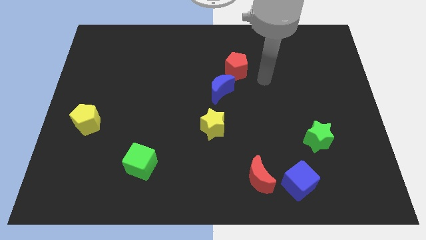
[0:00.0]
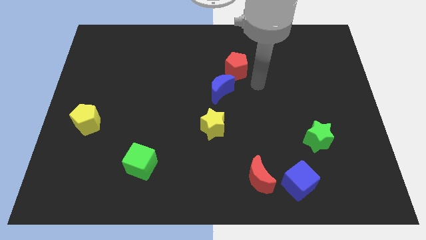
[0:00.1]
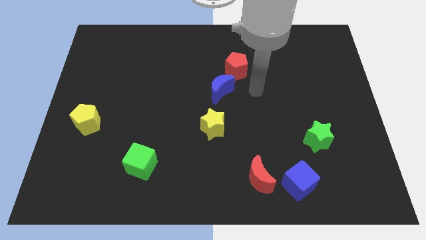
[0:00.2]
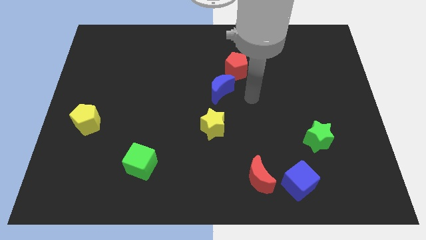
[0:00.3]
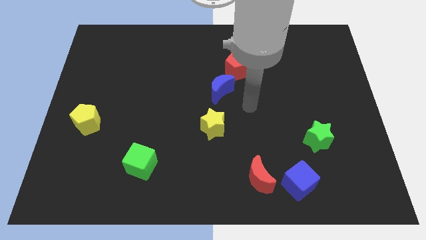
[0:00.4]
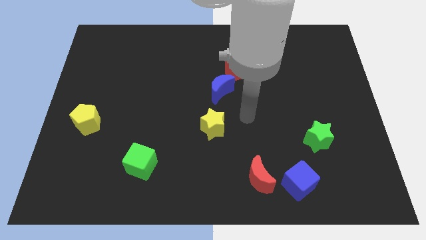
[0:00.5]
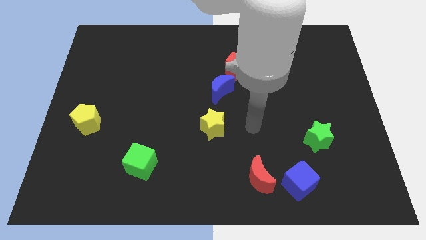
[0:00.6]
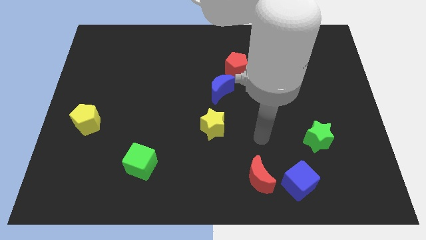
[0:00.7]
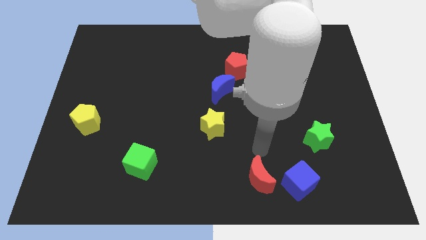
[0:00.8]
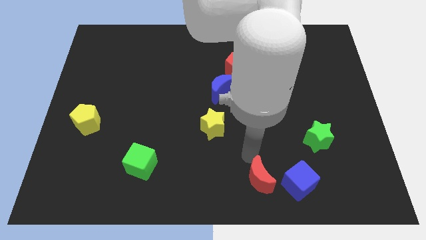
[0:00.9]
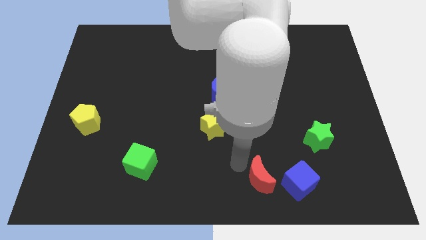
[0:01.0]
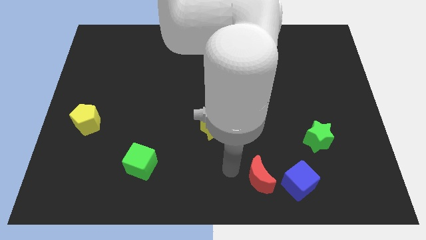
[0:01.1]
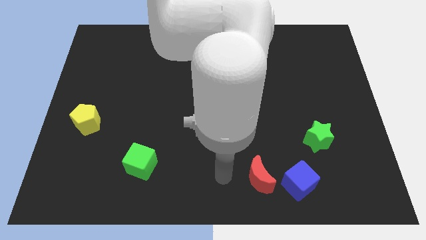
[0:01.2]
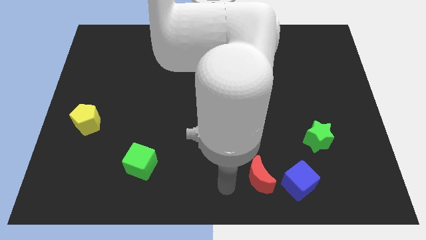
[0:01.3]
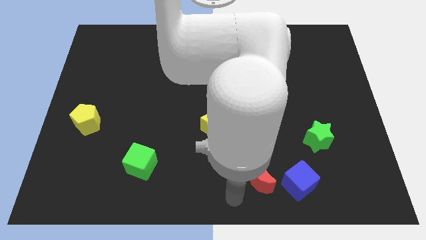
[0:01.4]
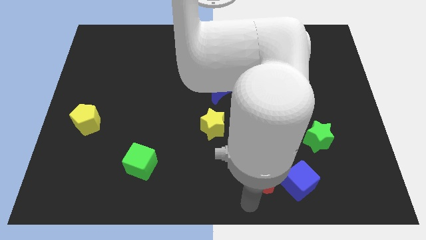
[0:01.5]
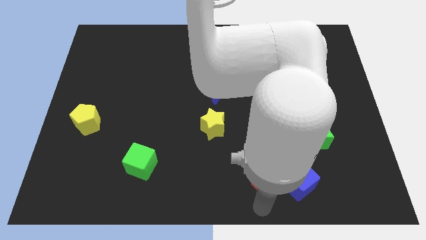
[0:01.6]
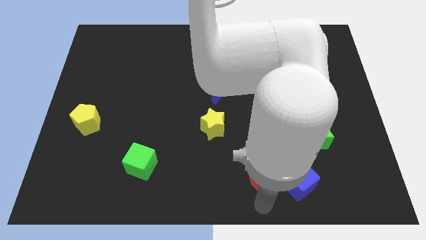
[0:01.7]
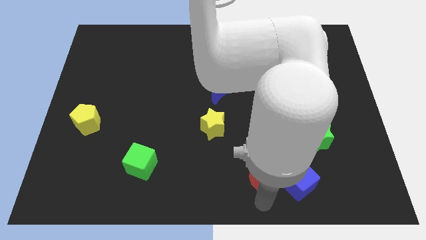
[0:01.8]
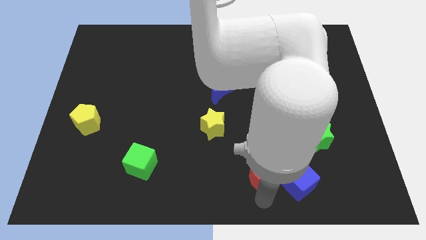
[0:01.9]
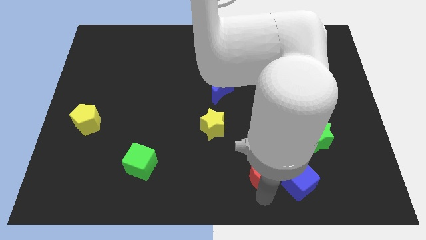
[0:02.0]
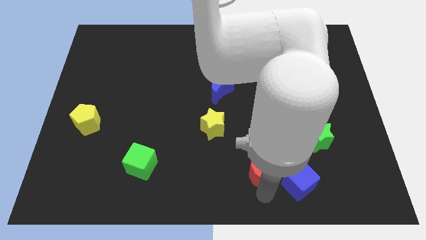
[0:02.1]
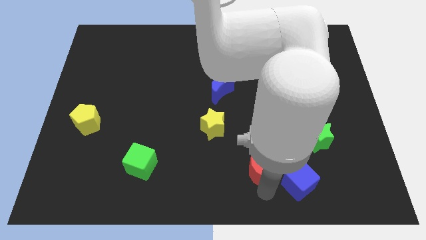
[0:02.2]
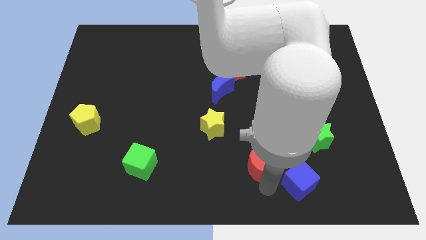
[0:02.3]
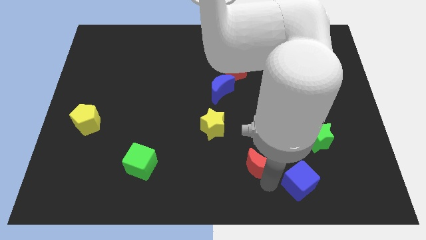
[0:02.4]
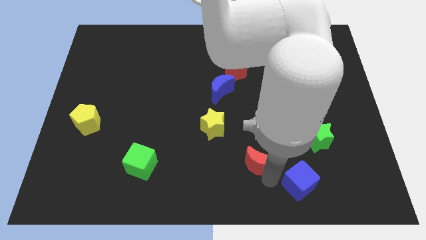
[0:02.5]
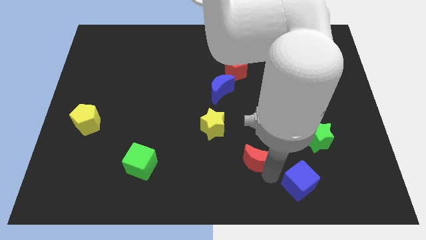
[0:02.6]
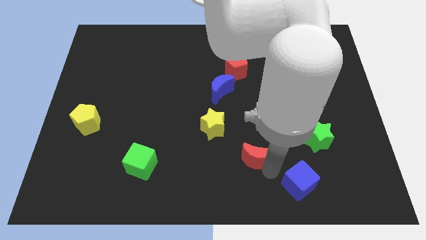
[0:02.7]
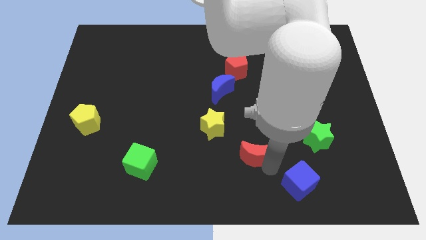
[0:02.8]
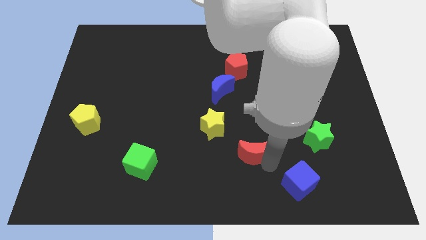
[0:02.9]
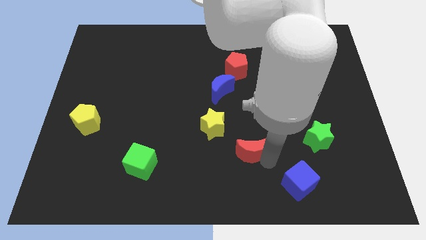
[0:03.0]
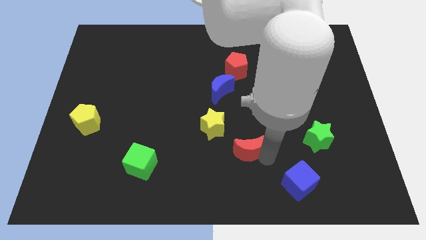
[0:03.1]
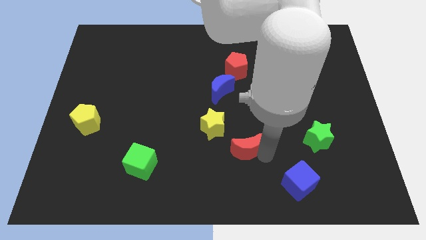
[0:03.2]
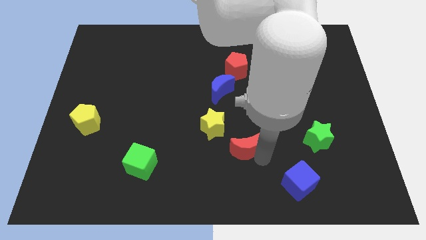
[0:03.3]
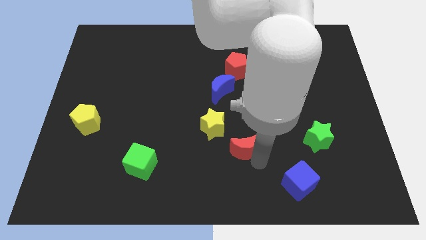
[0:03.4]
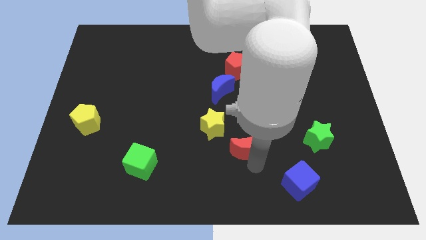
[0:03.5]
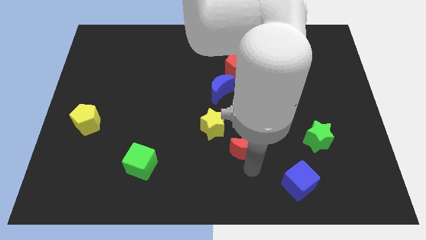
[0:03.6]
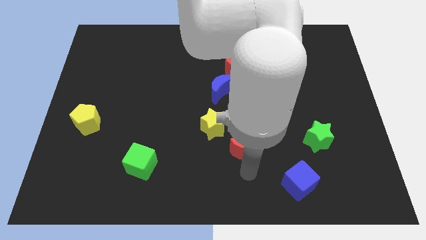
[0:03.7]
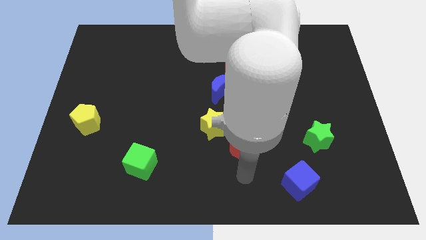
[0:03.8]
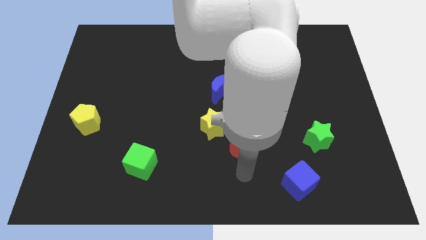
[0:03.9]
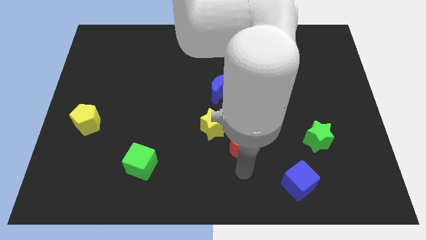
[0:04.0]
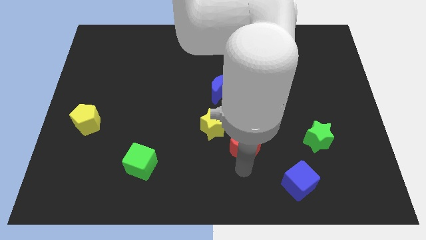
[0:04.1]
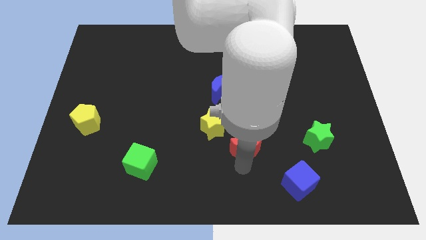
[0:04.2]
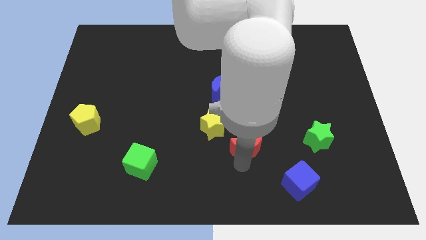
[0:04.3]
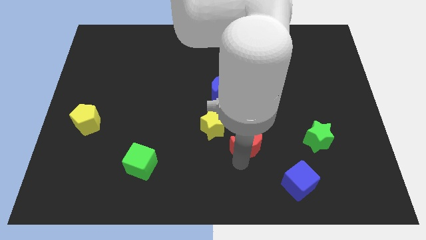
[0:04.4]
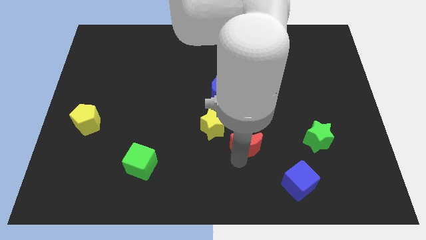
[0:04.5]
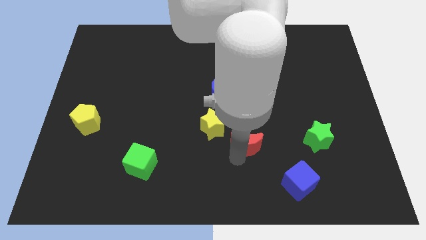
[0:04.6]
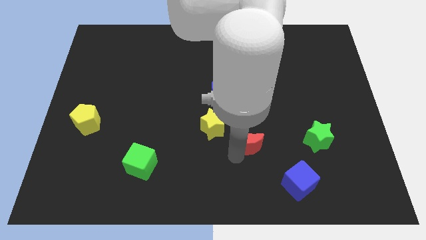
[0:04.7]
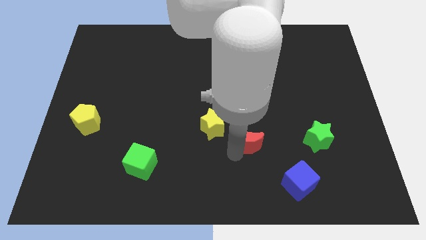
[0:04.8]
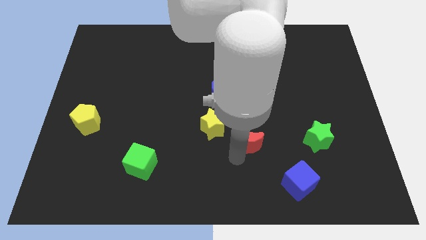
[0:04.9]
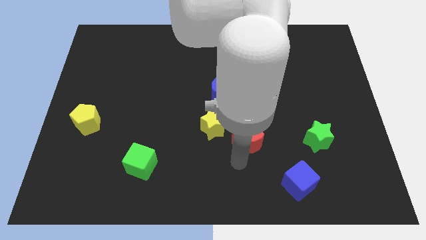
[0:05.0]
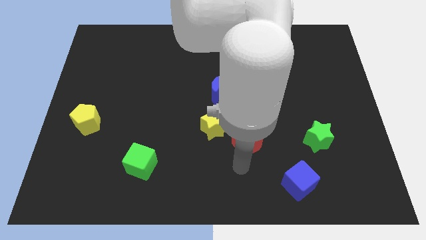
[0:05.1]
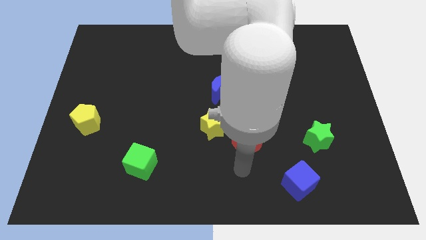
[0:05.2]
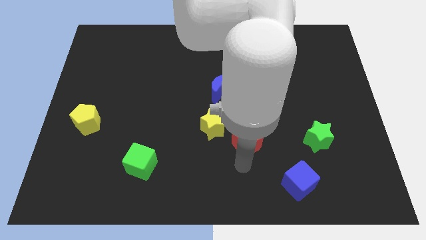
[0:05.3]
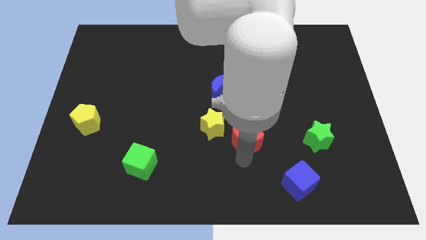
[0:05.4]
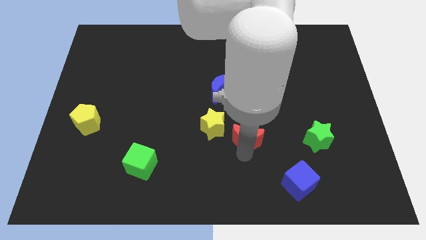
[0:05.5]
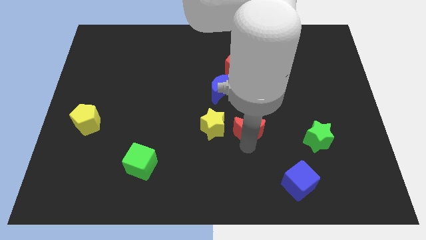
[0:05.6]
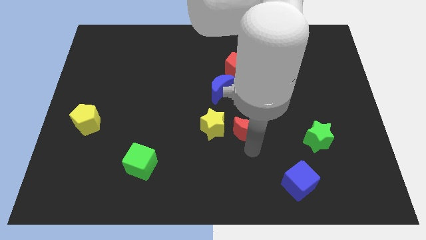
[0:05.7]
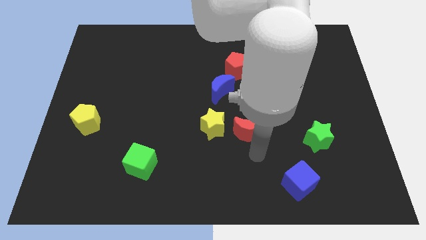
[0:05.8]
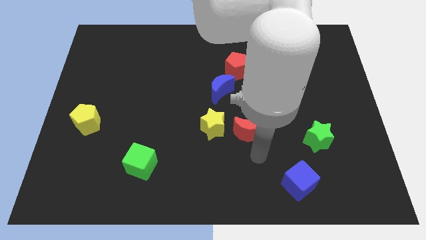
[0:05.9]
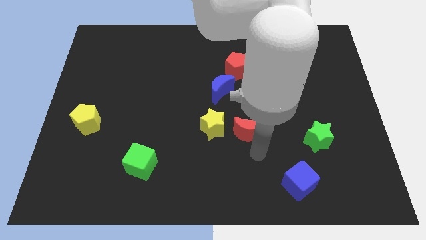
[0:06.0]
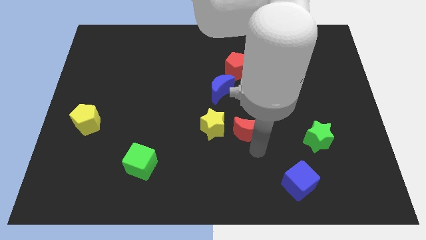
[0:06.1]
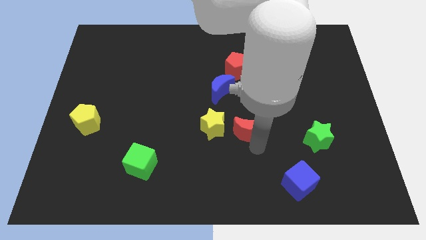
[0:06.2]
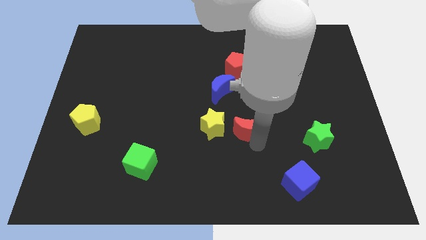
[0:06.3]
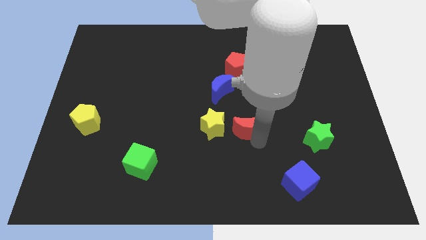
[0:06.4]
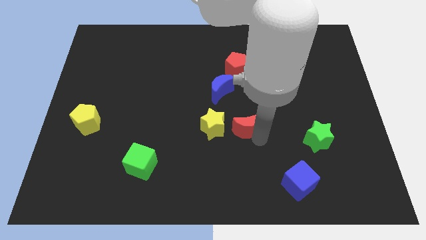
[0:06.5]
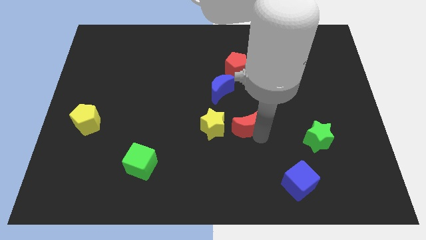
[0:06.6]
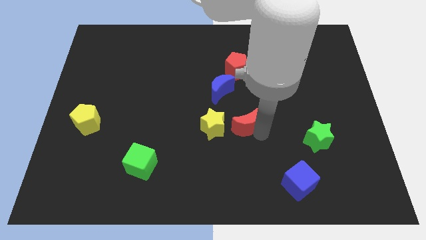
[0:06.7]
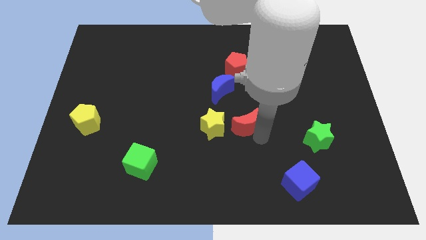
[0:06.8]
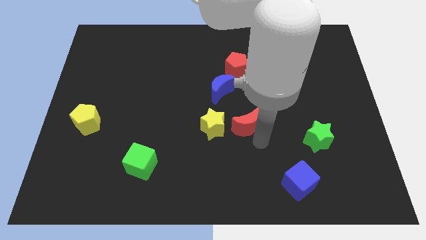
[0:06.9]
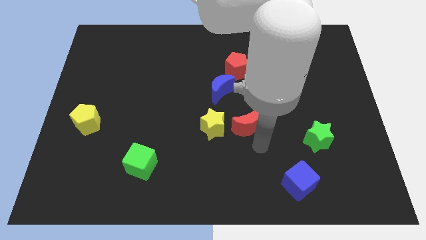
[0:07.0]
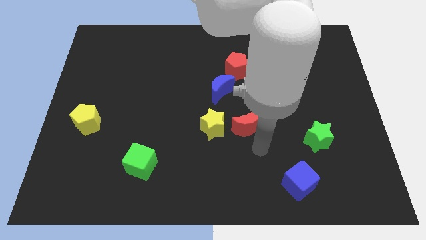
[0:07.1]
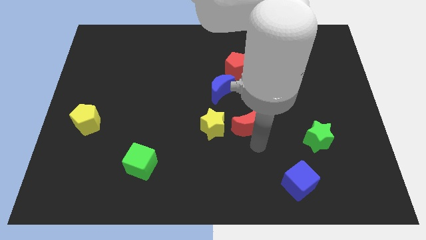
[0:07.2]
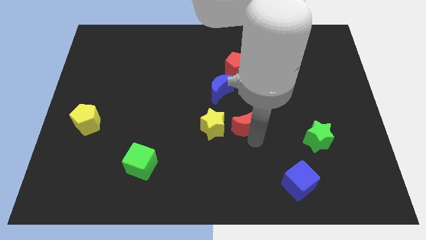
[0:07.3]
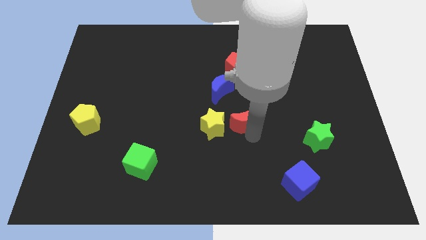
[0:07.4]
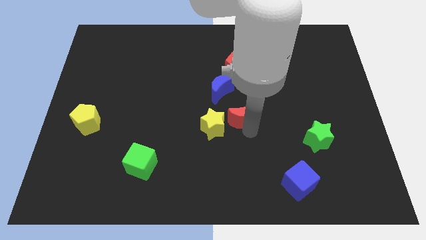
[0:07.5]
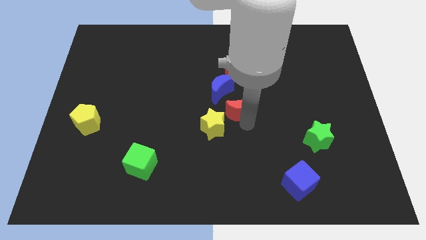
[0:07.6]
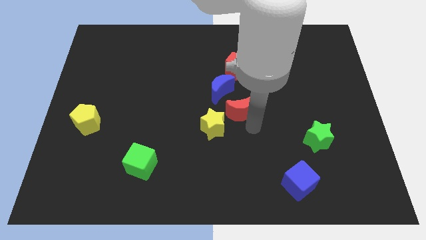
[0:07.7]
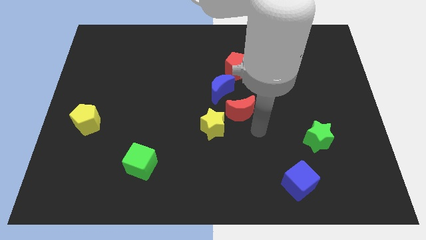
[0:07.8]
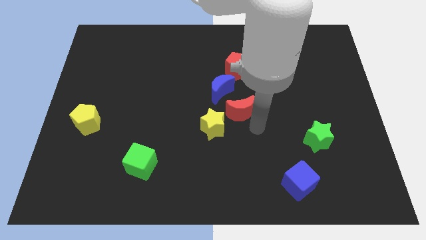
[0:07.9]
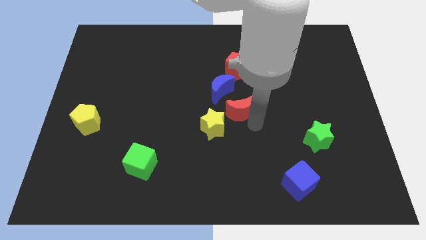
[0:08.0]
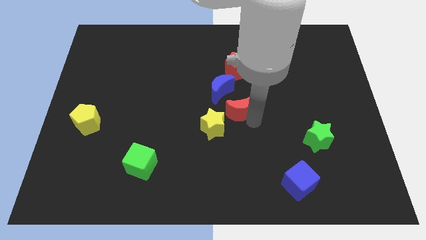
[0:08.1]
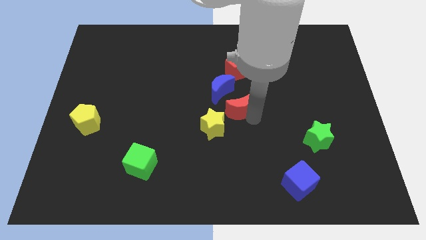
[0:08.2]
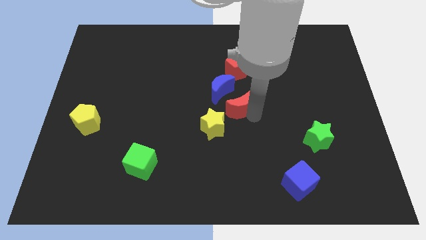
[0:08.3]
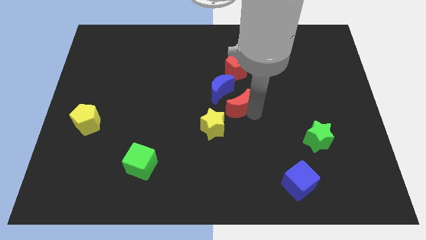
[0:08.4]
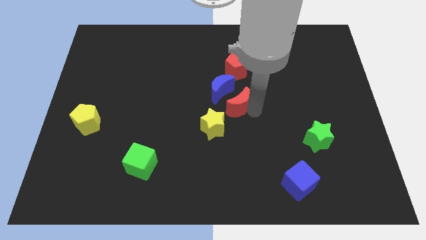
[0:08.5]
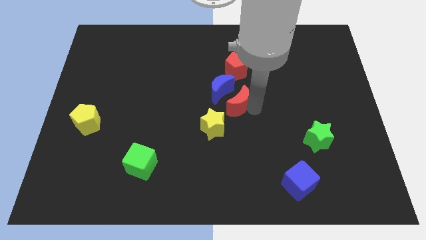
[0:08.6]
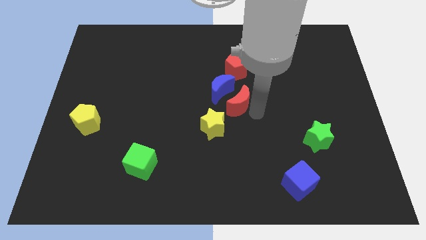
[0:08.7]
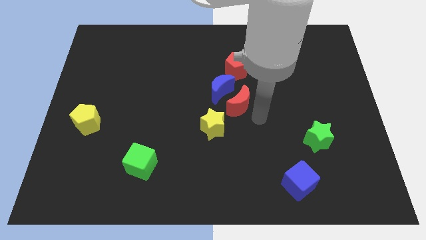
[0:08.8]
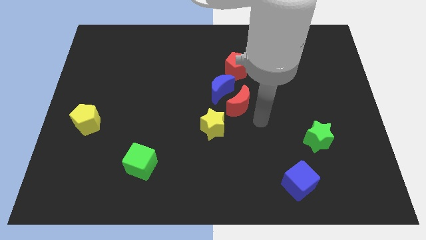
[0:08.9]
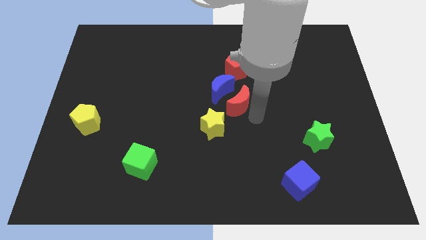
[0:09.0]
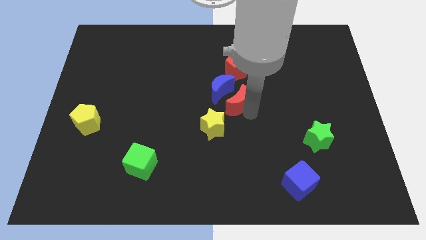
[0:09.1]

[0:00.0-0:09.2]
slide the red moon to the blue moon
